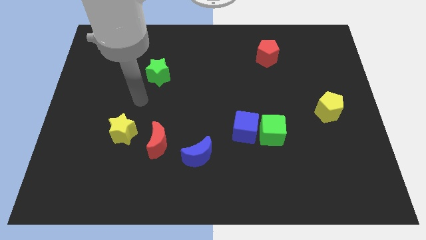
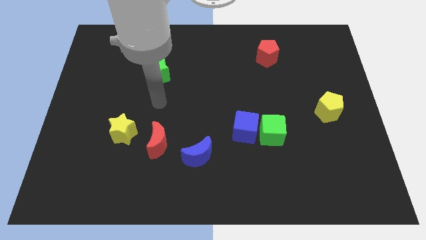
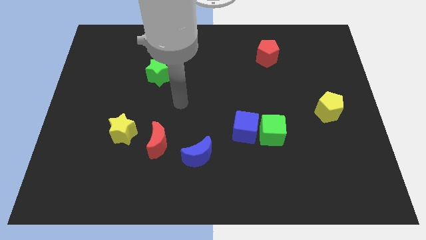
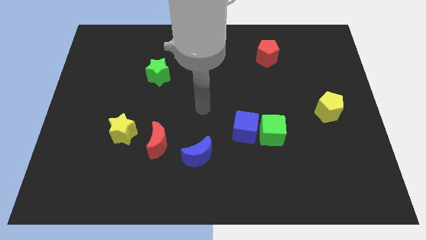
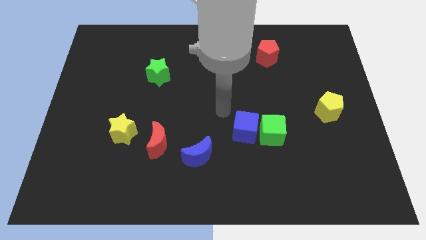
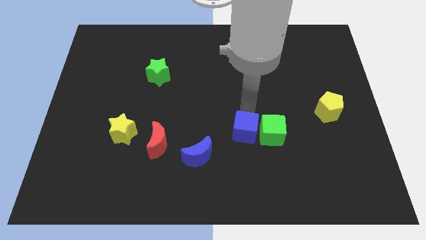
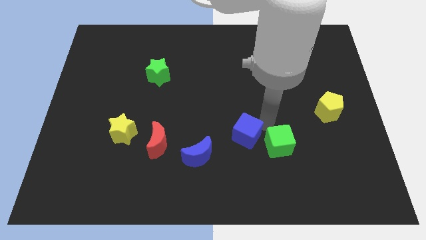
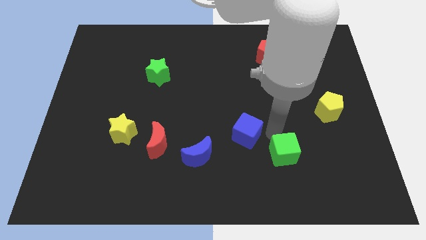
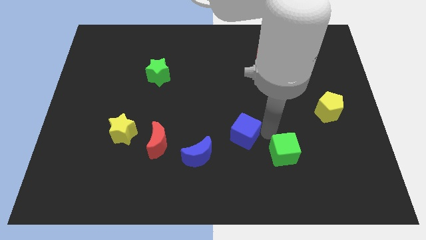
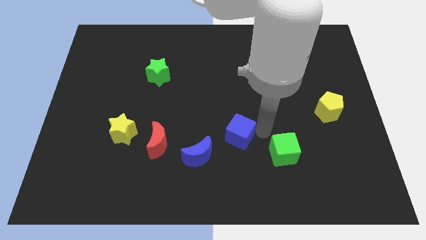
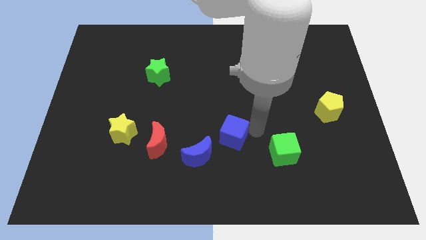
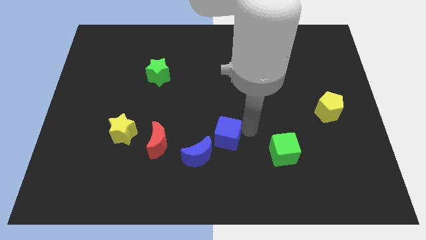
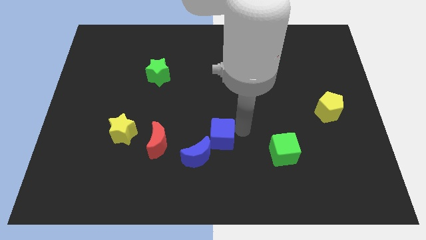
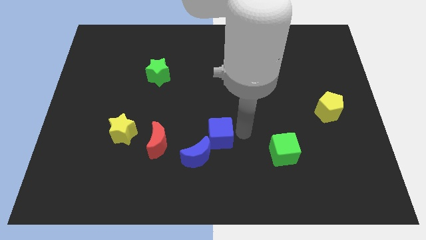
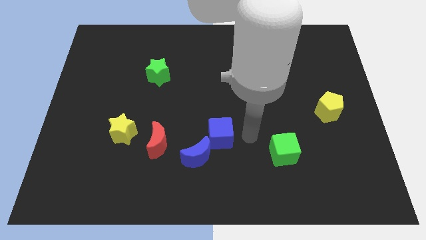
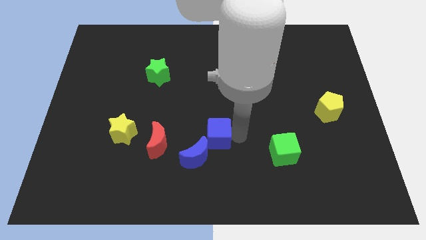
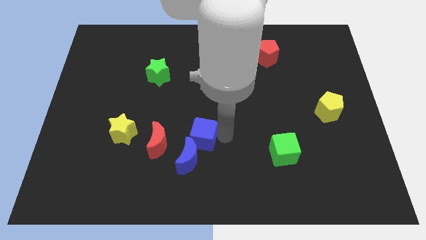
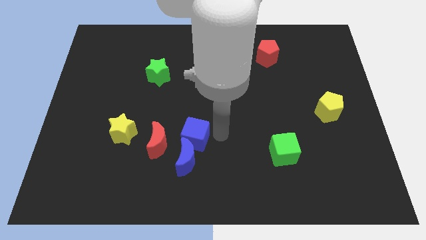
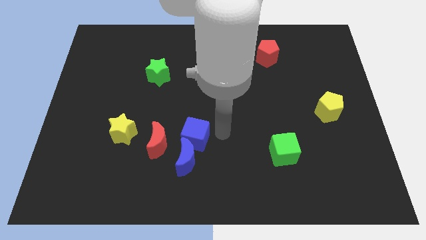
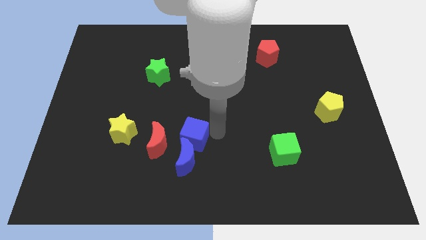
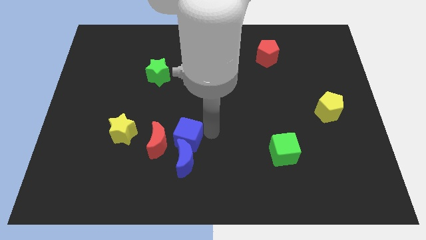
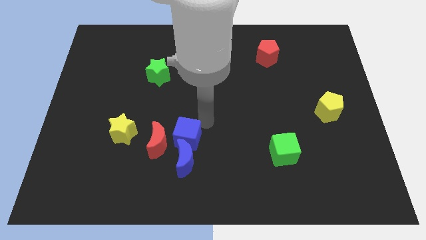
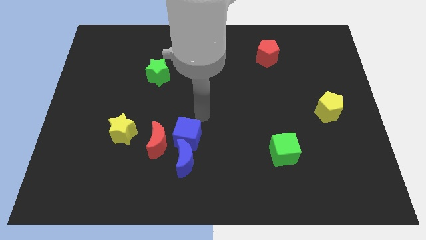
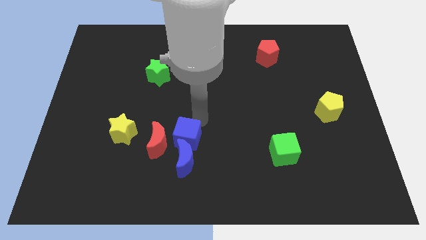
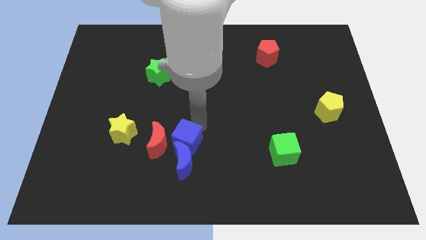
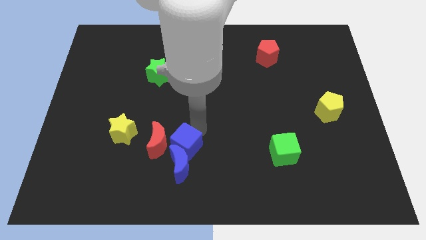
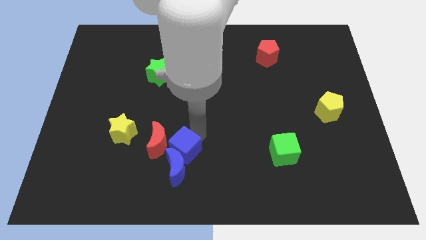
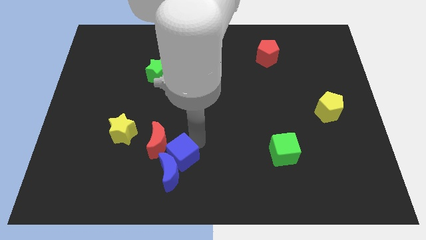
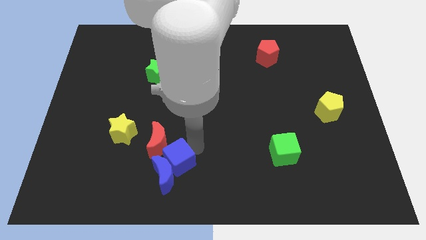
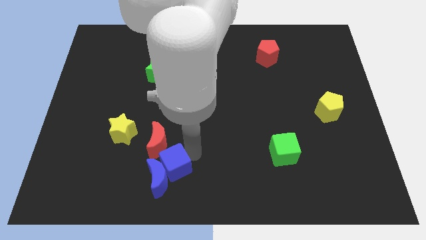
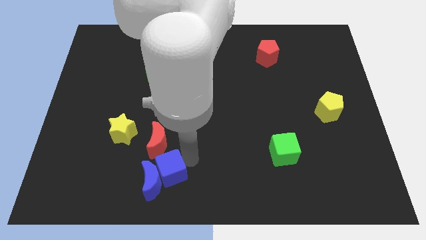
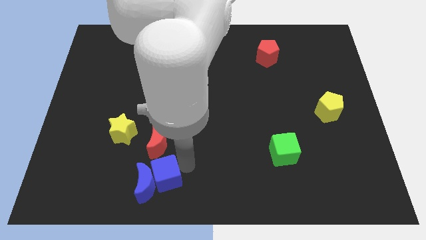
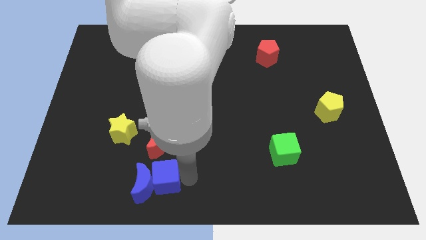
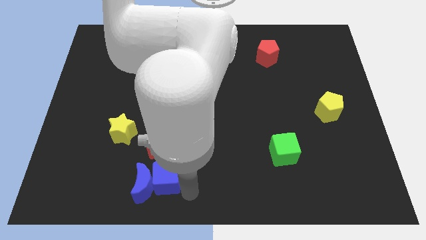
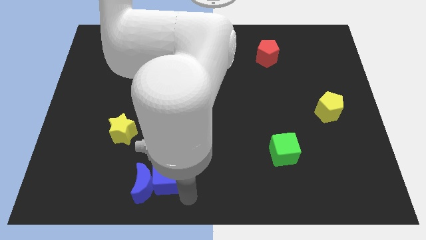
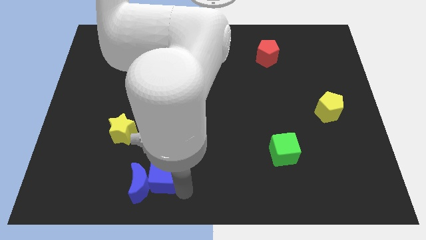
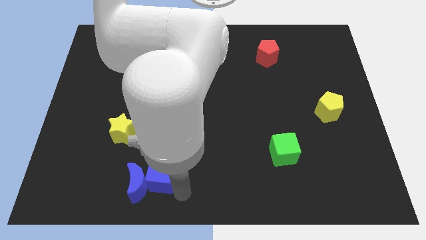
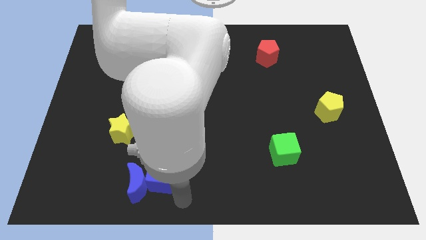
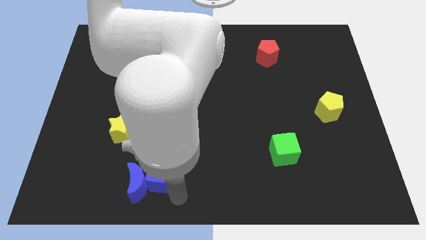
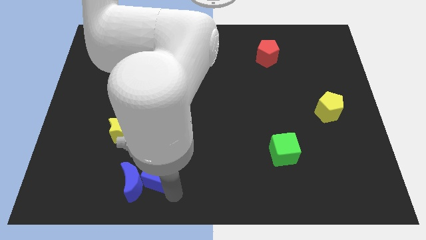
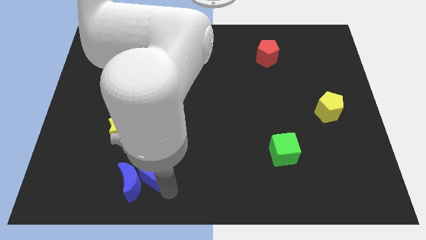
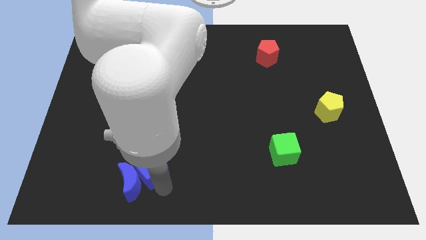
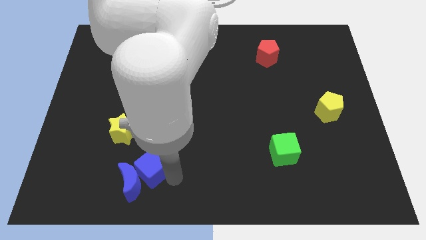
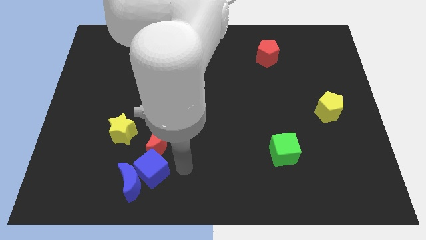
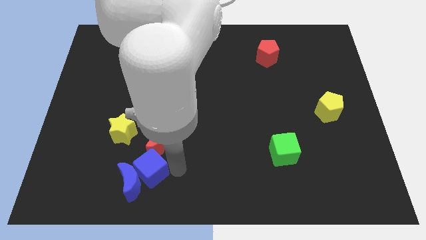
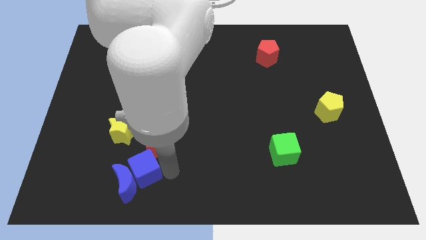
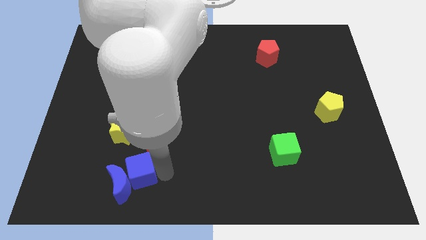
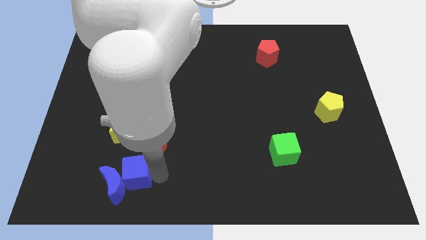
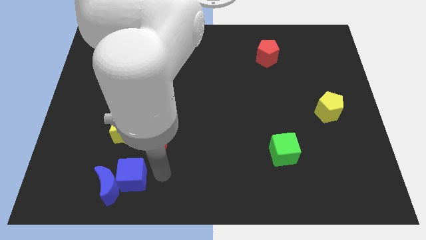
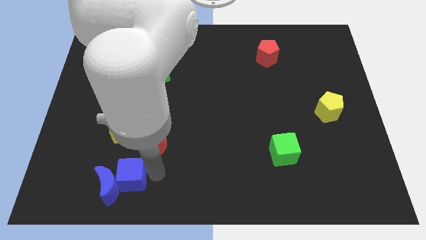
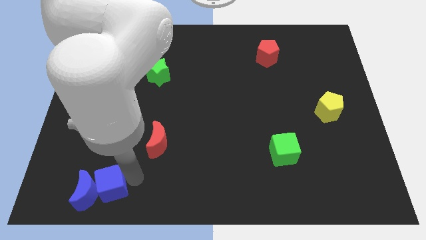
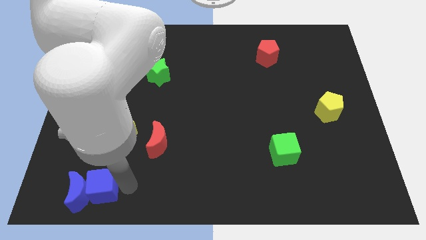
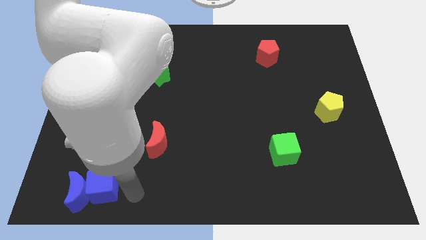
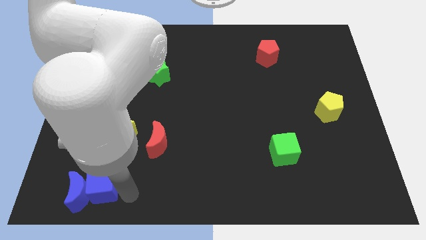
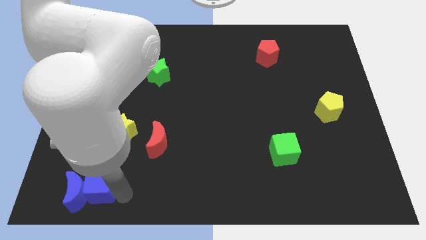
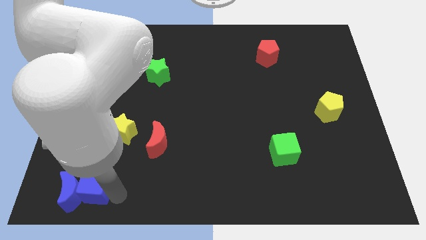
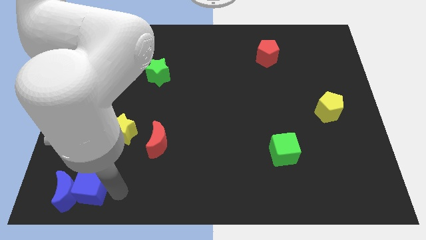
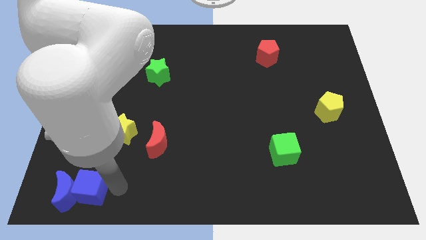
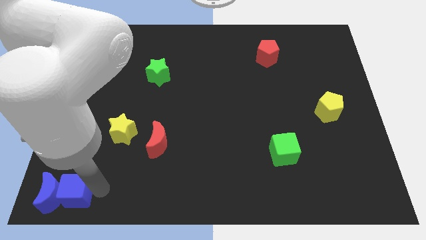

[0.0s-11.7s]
move the blue cube to the bottom left of the board
